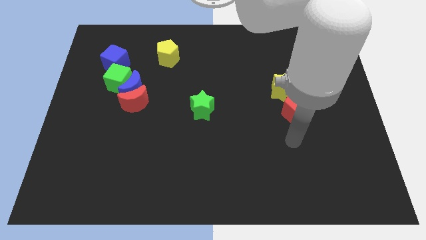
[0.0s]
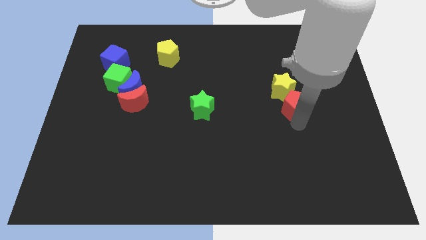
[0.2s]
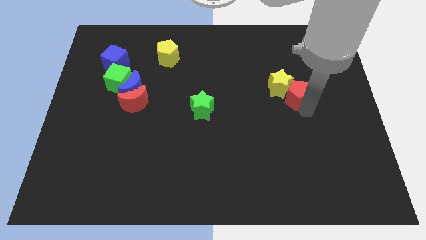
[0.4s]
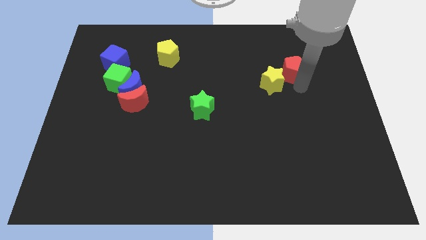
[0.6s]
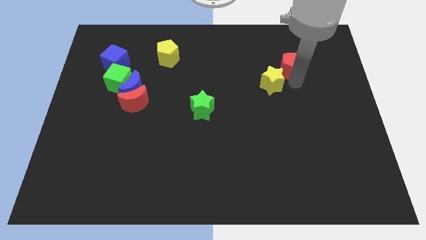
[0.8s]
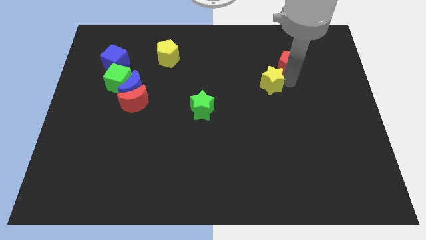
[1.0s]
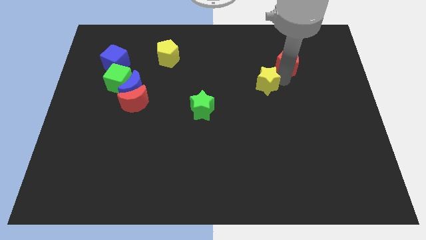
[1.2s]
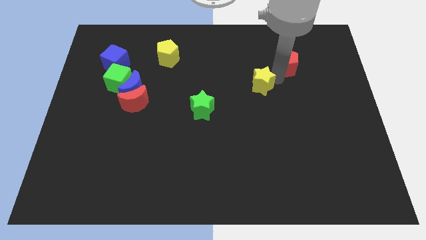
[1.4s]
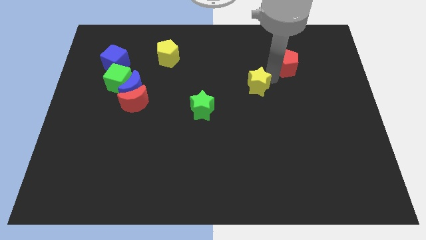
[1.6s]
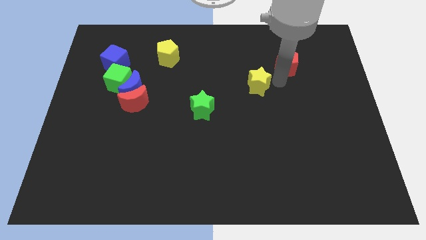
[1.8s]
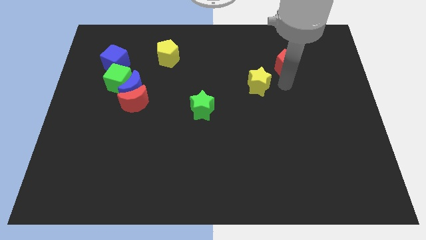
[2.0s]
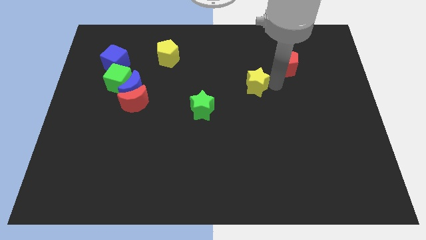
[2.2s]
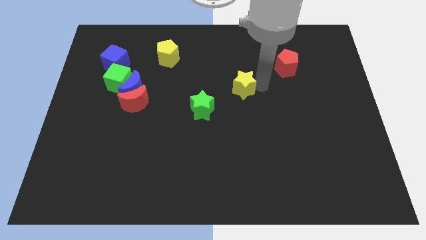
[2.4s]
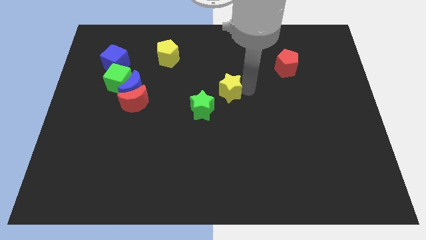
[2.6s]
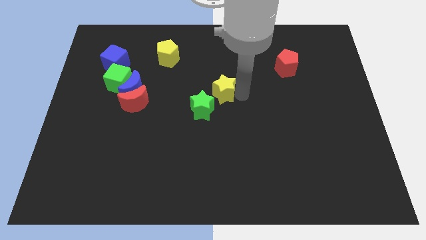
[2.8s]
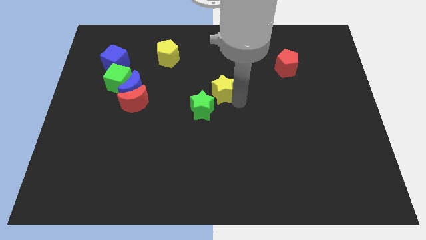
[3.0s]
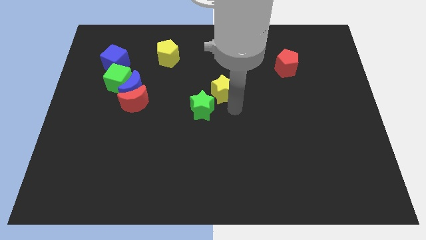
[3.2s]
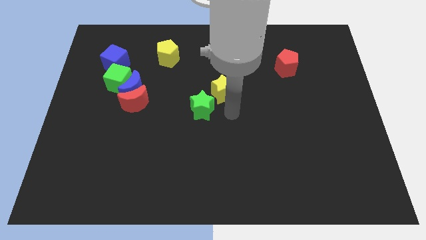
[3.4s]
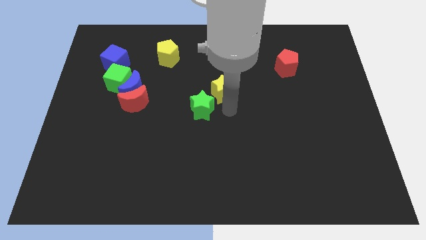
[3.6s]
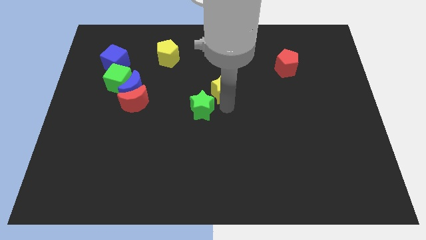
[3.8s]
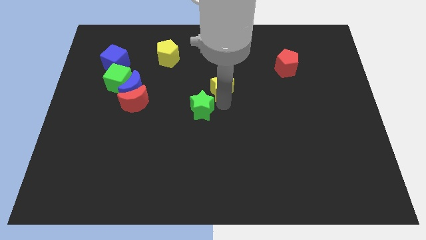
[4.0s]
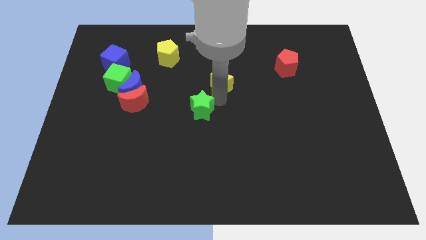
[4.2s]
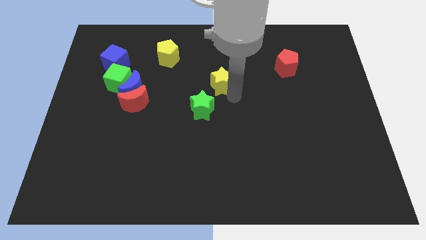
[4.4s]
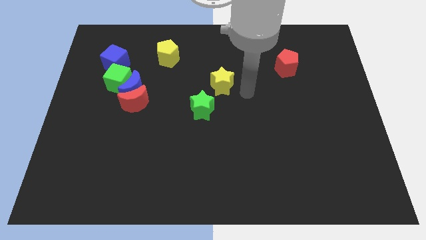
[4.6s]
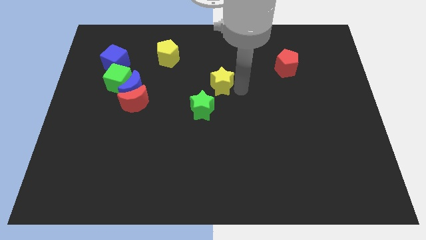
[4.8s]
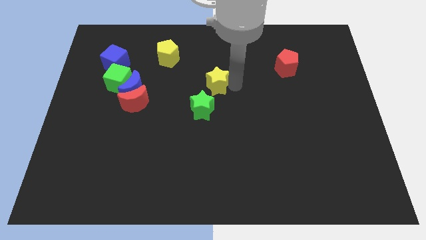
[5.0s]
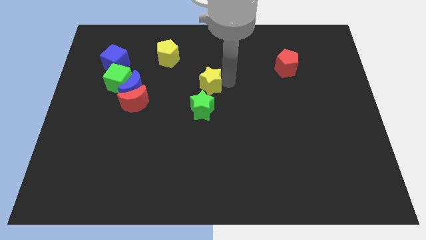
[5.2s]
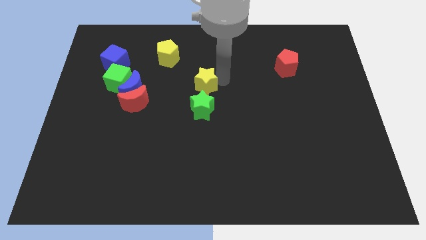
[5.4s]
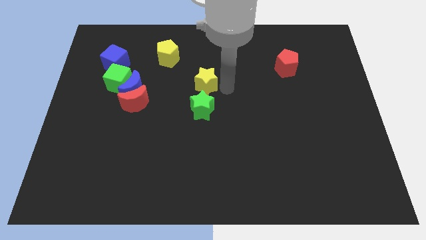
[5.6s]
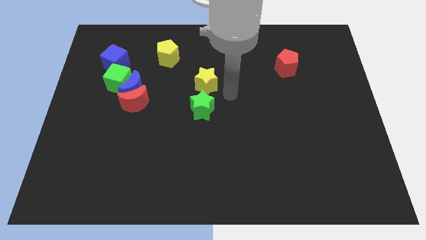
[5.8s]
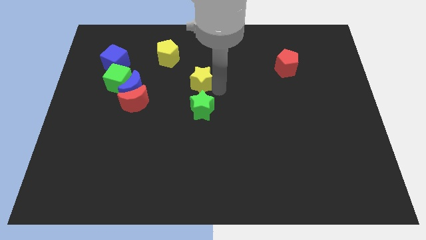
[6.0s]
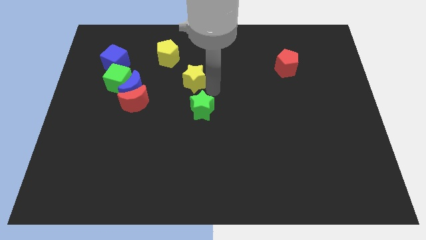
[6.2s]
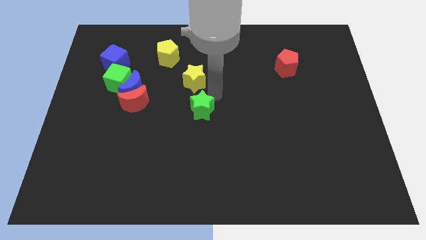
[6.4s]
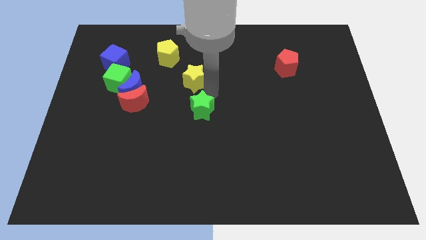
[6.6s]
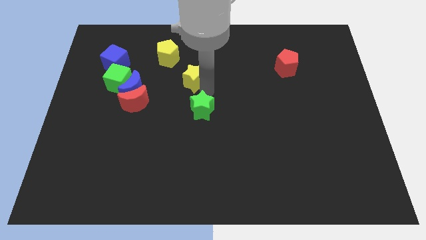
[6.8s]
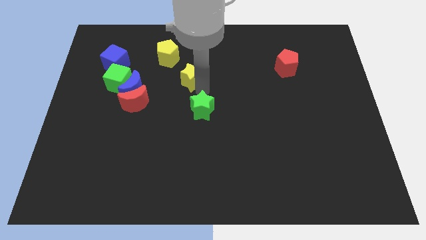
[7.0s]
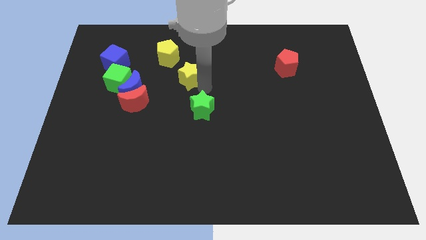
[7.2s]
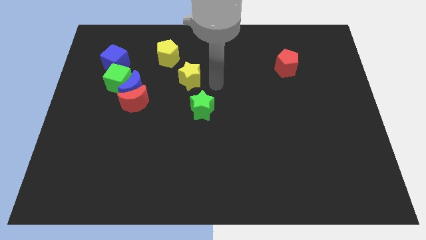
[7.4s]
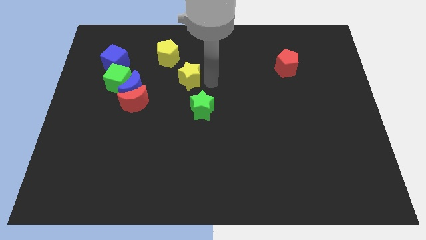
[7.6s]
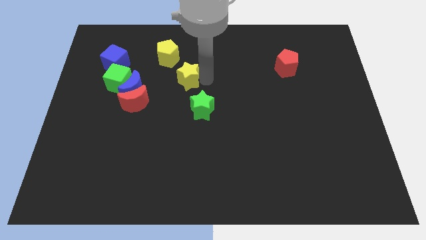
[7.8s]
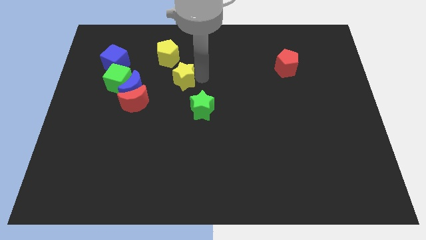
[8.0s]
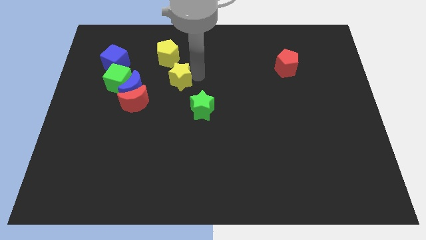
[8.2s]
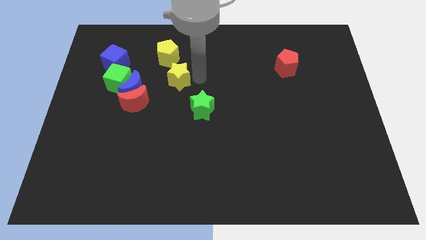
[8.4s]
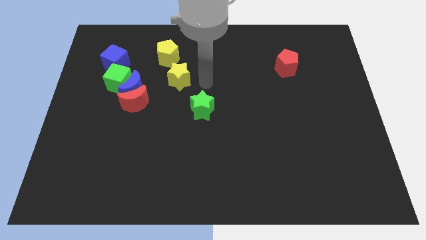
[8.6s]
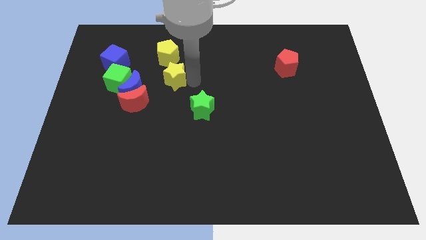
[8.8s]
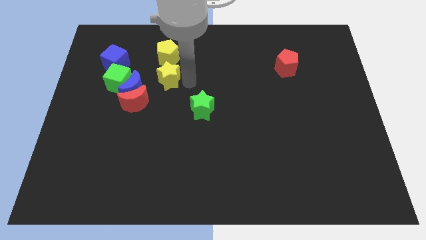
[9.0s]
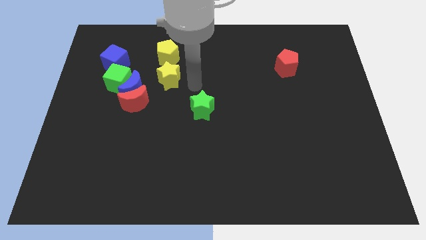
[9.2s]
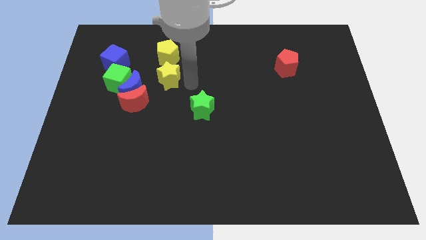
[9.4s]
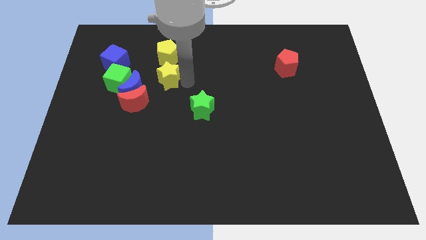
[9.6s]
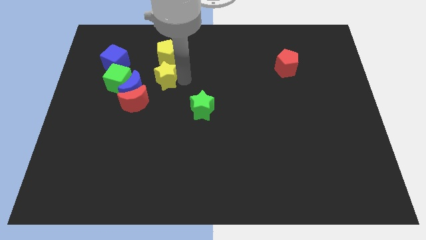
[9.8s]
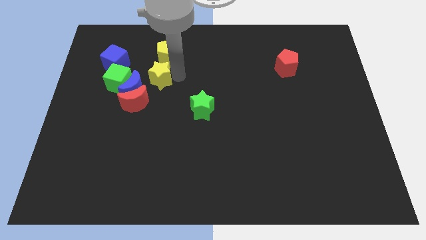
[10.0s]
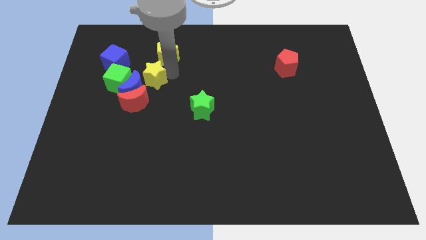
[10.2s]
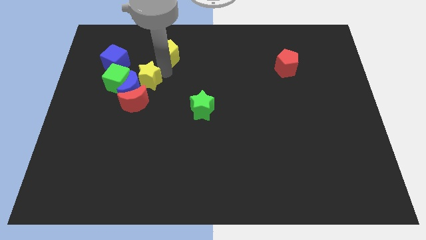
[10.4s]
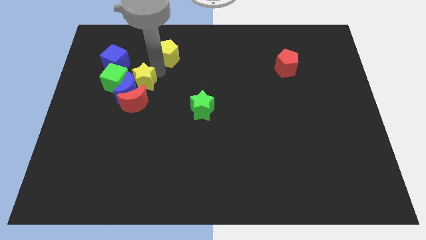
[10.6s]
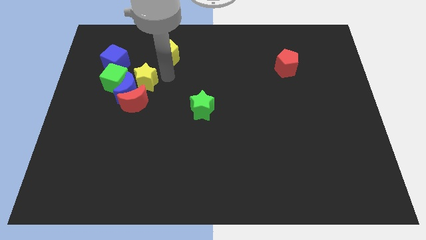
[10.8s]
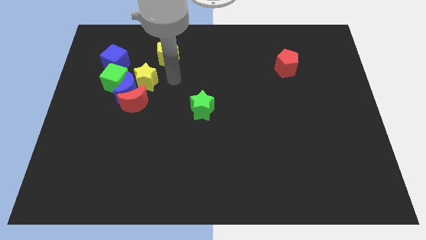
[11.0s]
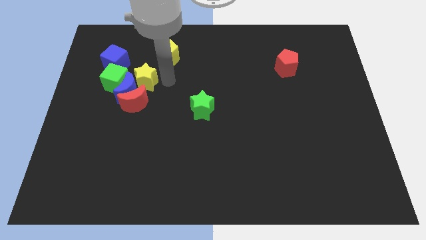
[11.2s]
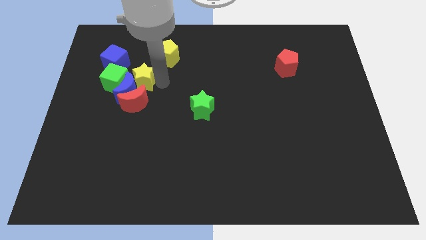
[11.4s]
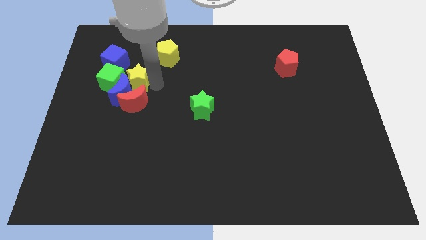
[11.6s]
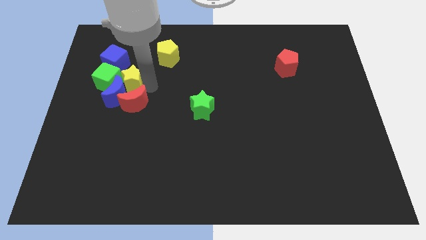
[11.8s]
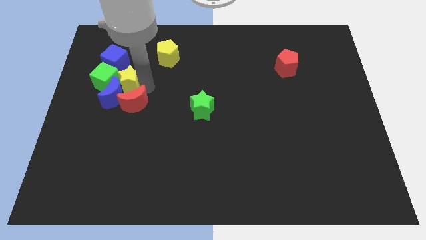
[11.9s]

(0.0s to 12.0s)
slide the yellow star towards the green cube
